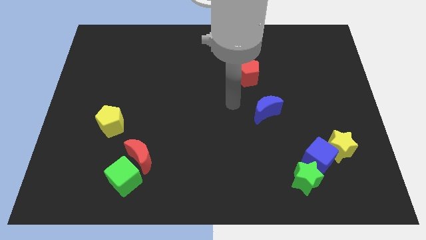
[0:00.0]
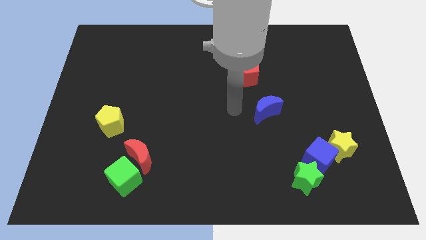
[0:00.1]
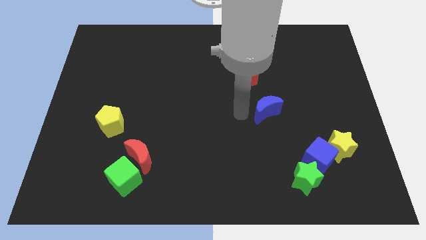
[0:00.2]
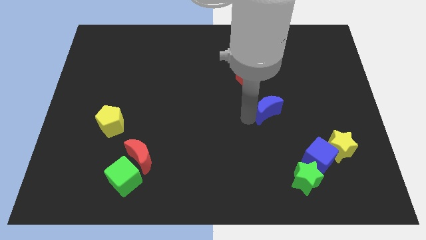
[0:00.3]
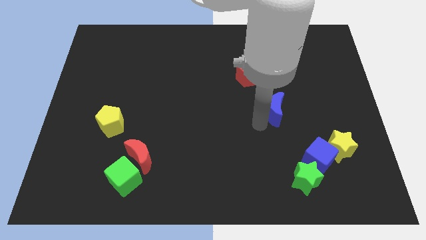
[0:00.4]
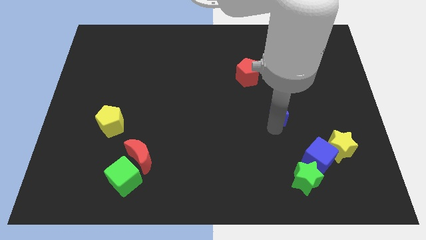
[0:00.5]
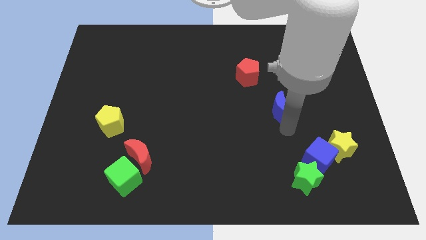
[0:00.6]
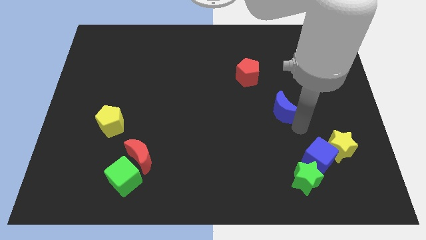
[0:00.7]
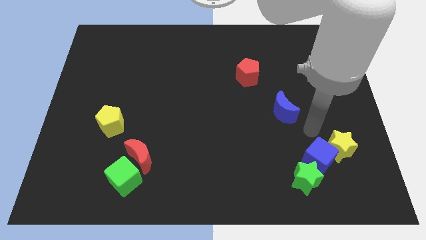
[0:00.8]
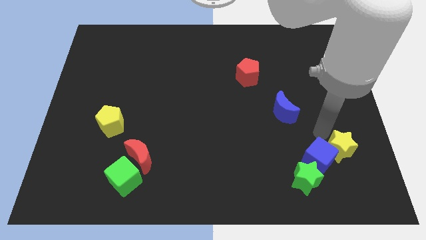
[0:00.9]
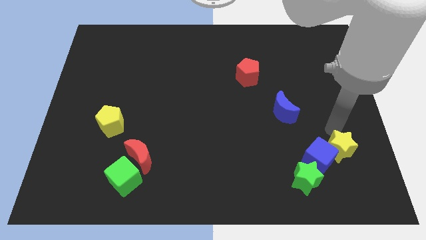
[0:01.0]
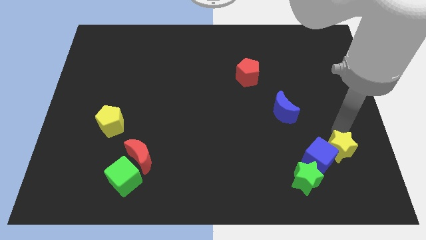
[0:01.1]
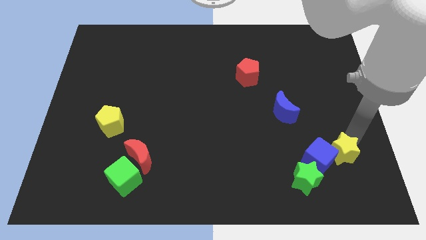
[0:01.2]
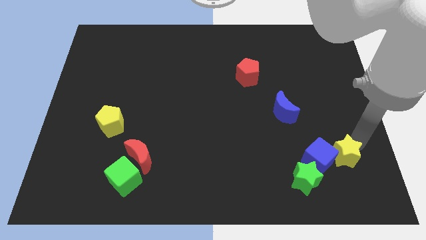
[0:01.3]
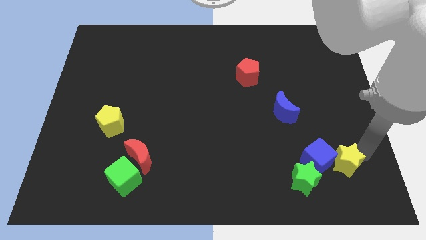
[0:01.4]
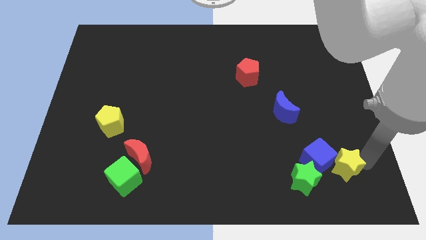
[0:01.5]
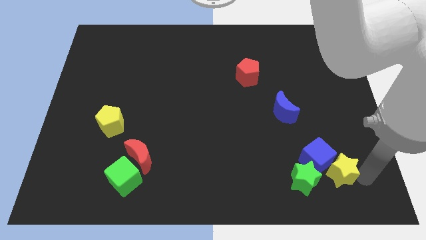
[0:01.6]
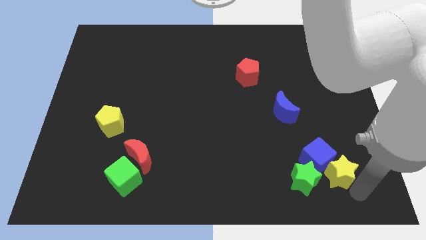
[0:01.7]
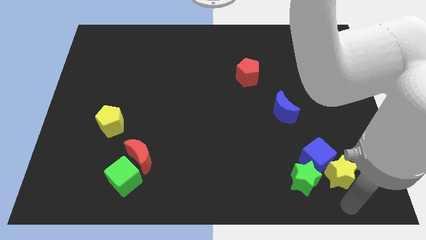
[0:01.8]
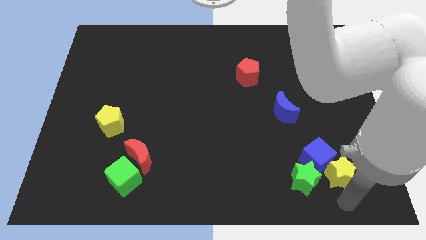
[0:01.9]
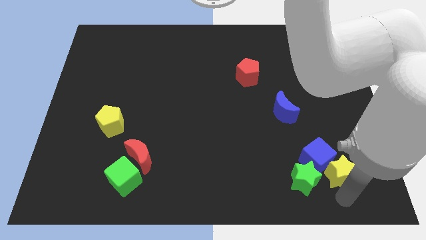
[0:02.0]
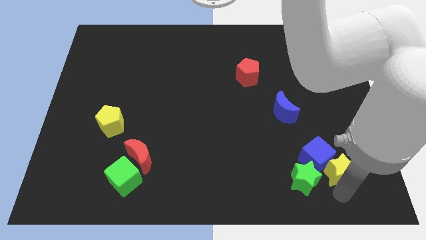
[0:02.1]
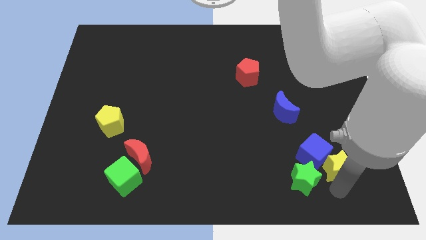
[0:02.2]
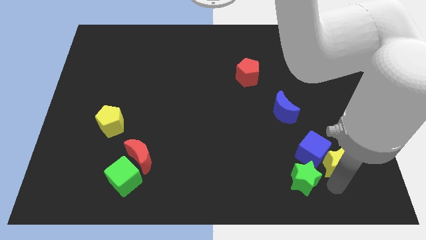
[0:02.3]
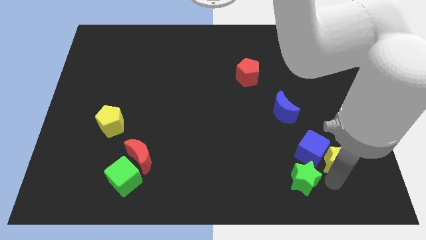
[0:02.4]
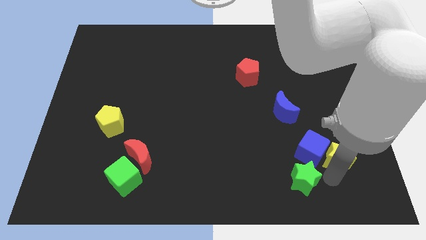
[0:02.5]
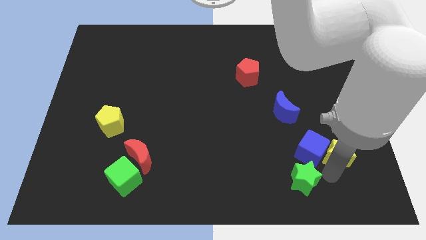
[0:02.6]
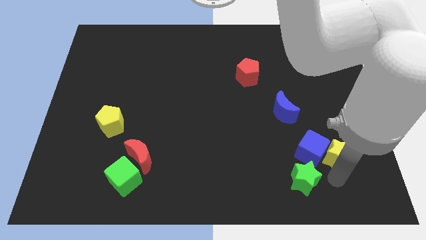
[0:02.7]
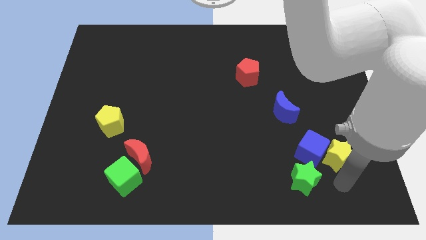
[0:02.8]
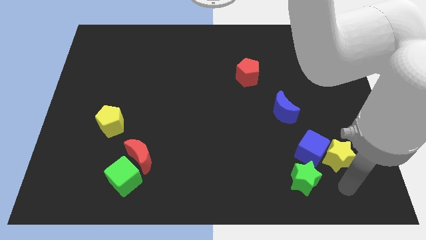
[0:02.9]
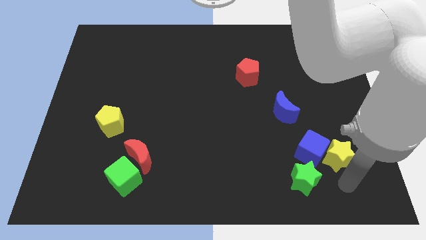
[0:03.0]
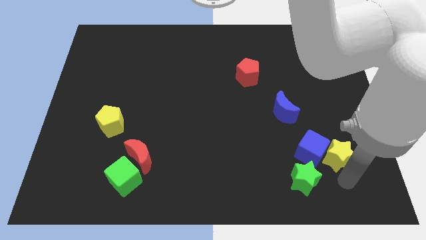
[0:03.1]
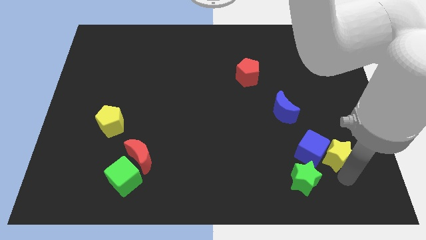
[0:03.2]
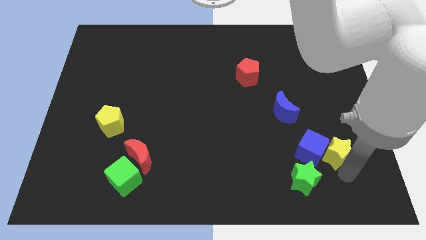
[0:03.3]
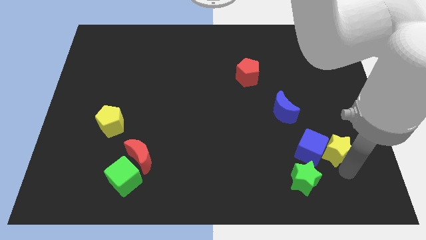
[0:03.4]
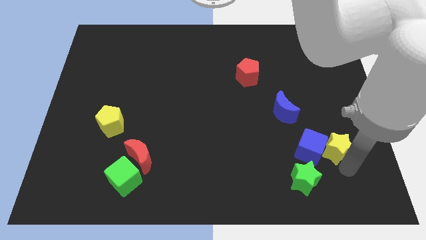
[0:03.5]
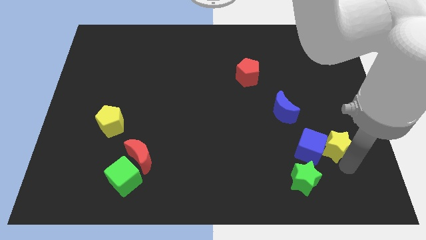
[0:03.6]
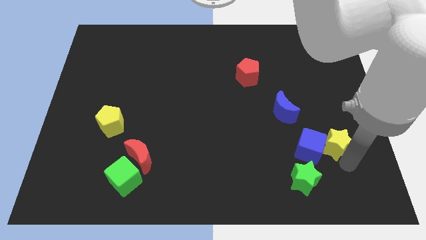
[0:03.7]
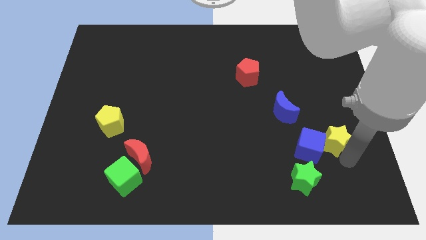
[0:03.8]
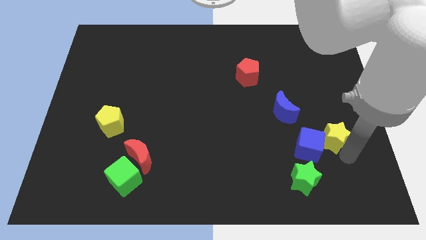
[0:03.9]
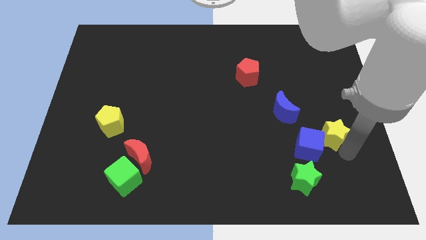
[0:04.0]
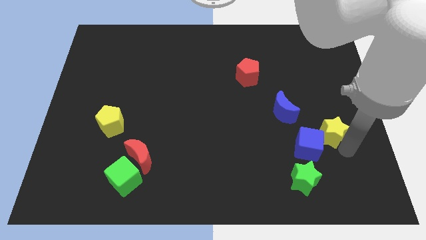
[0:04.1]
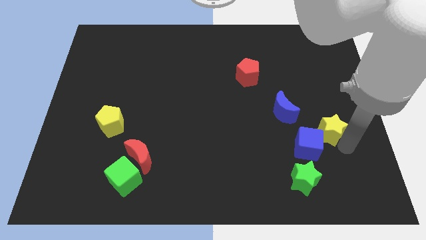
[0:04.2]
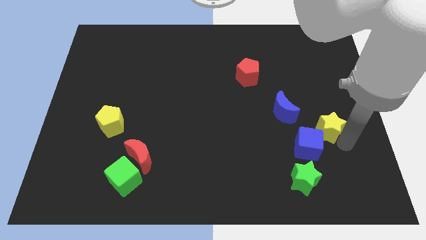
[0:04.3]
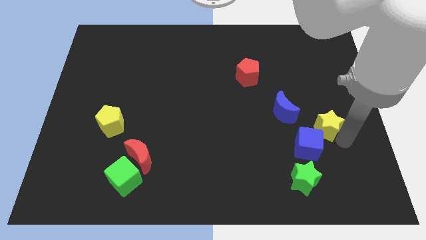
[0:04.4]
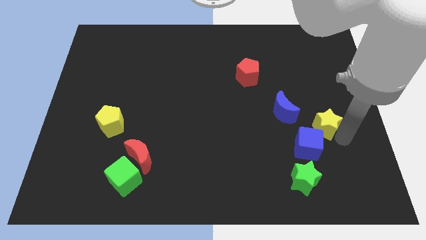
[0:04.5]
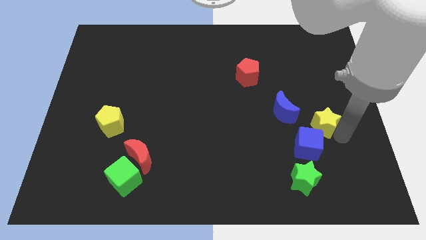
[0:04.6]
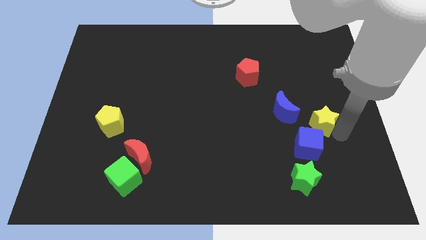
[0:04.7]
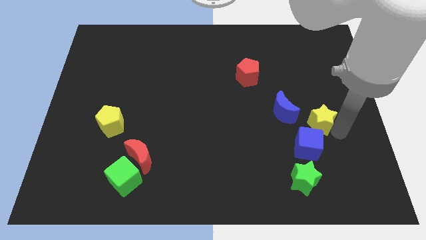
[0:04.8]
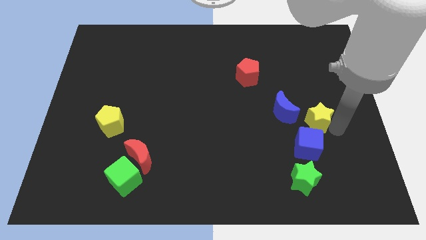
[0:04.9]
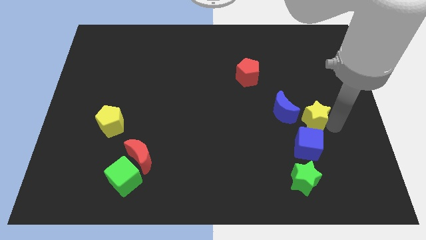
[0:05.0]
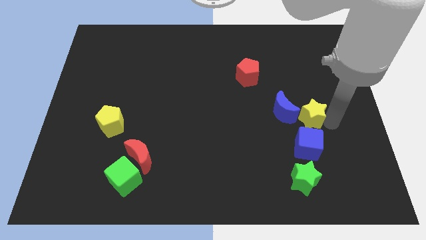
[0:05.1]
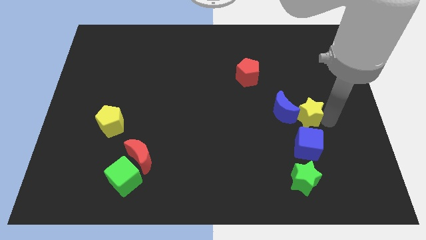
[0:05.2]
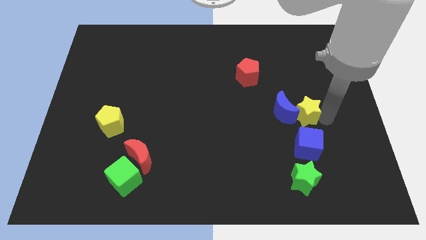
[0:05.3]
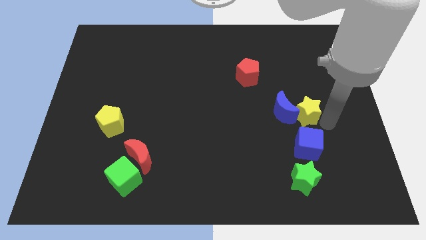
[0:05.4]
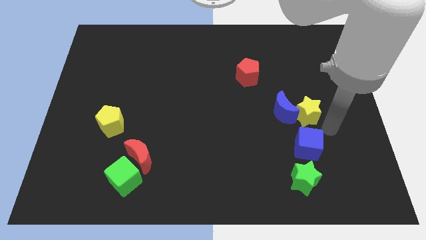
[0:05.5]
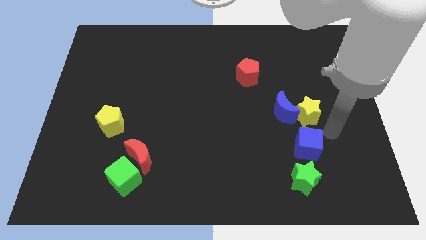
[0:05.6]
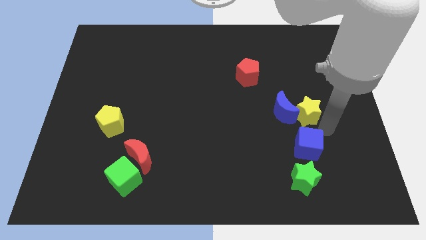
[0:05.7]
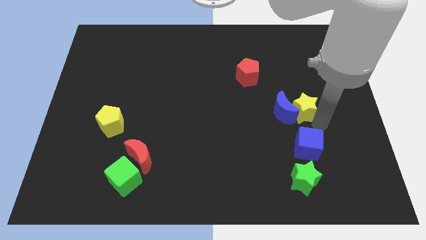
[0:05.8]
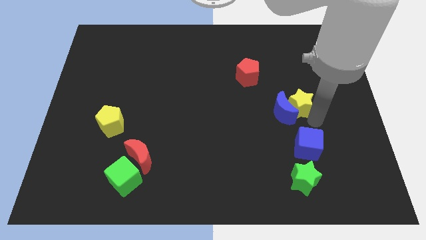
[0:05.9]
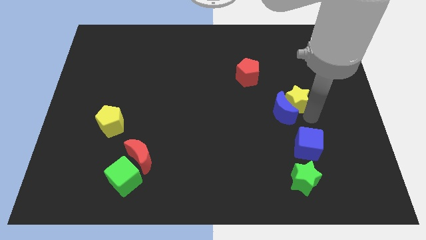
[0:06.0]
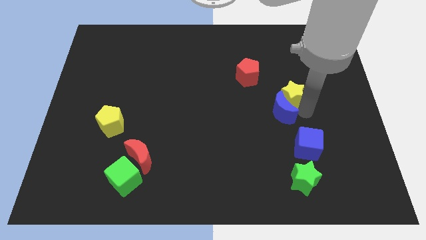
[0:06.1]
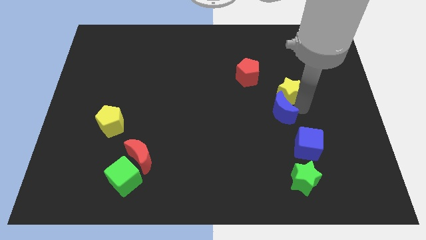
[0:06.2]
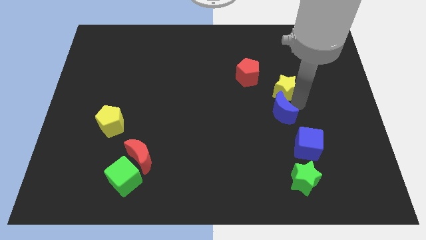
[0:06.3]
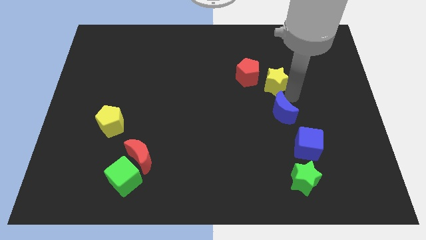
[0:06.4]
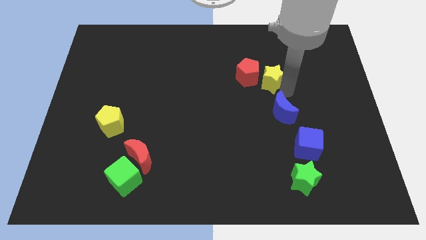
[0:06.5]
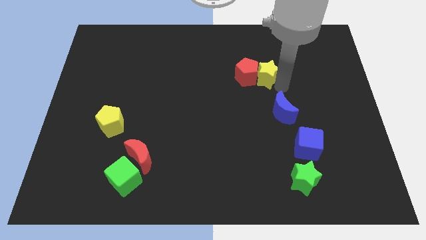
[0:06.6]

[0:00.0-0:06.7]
slide the yellow star next to the red pentagon
